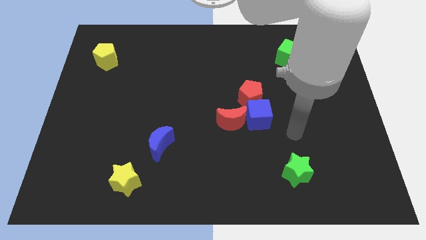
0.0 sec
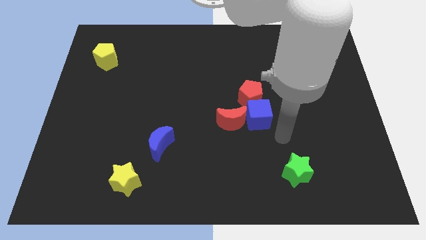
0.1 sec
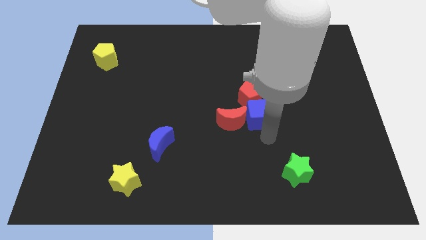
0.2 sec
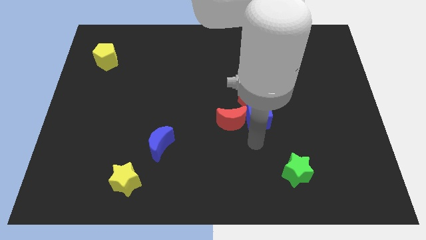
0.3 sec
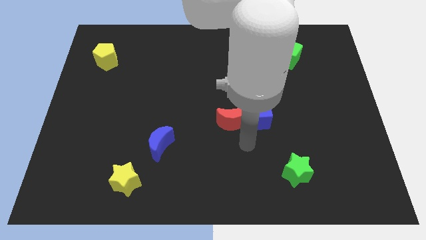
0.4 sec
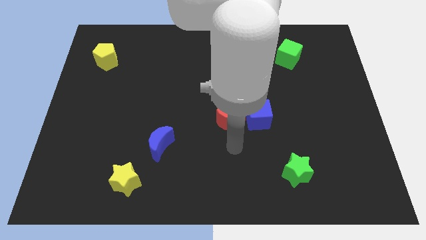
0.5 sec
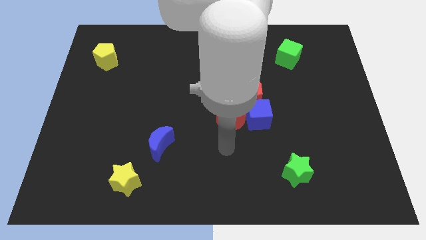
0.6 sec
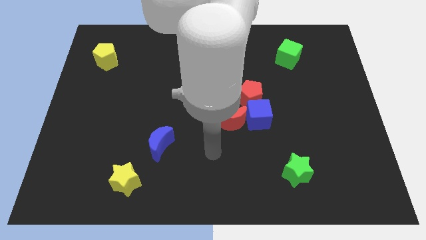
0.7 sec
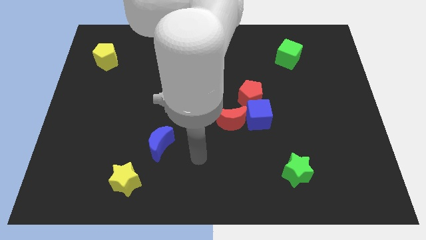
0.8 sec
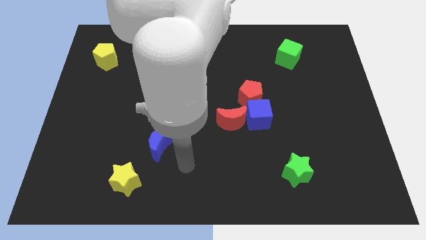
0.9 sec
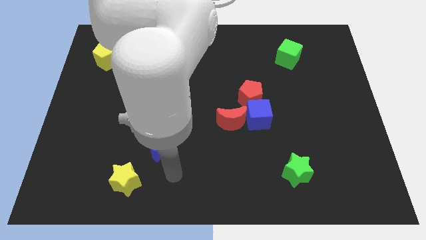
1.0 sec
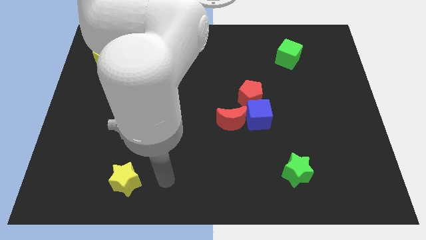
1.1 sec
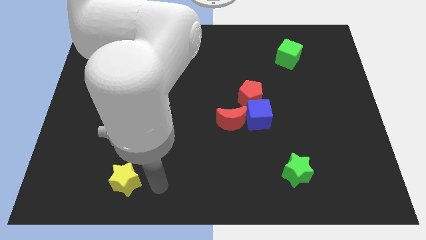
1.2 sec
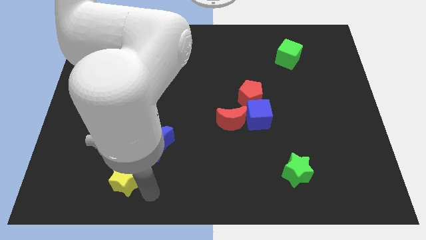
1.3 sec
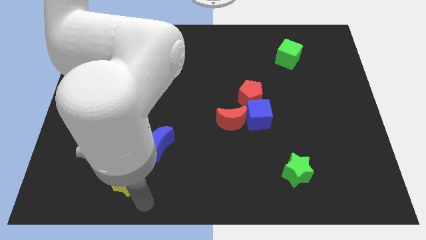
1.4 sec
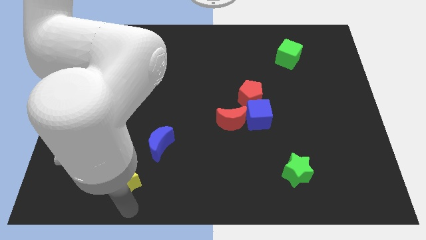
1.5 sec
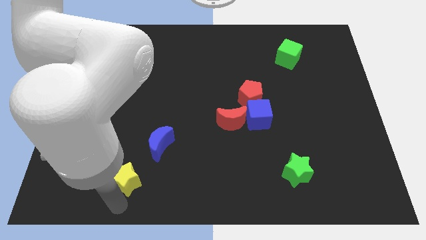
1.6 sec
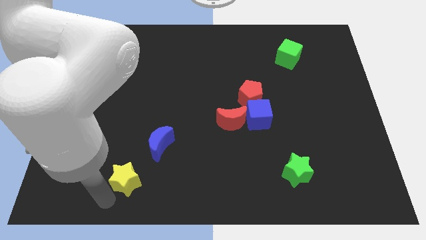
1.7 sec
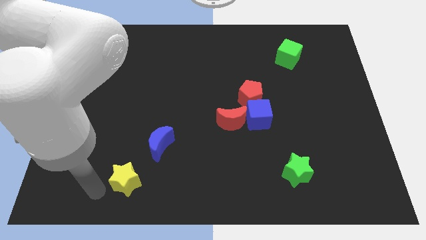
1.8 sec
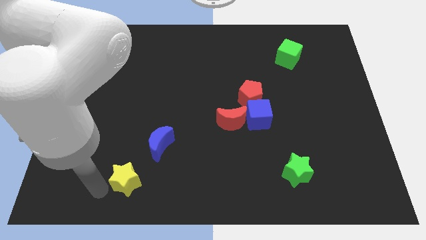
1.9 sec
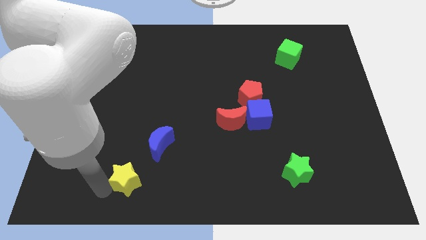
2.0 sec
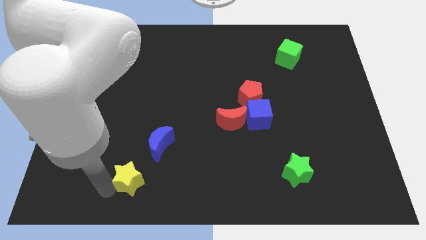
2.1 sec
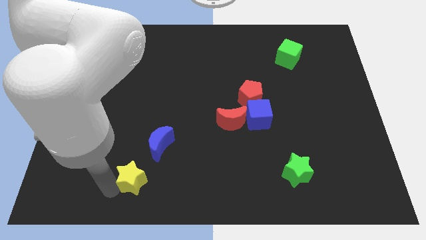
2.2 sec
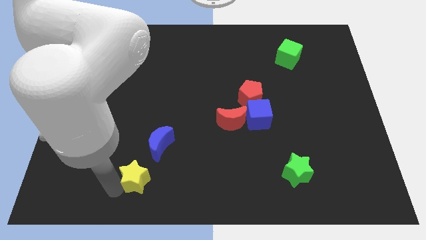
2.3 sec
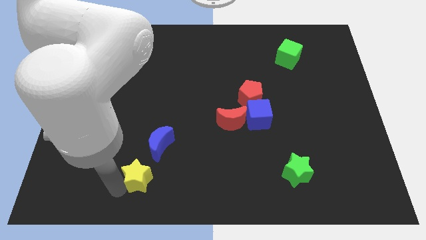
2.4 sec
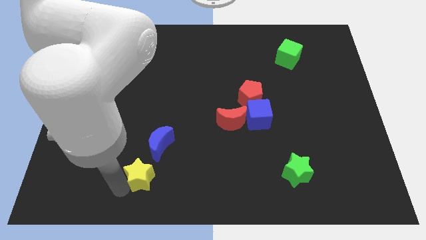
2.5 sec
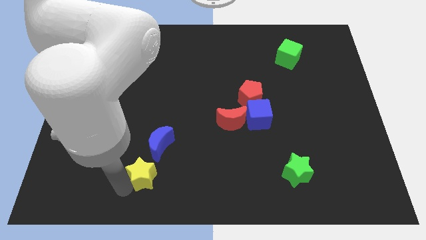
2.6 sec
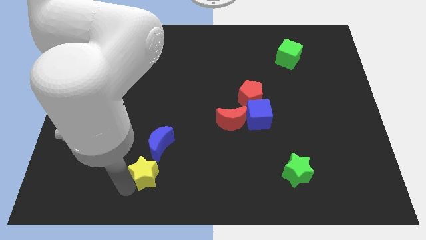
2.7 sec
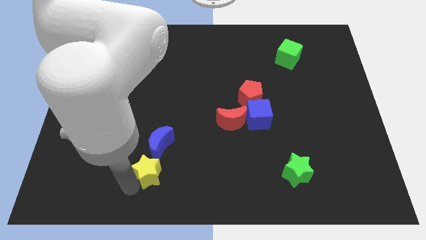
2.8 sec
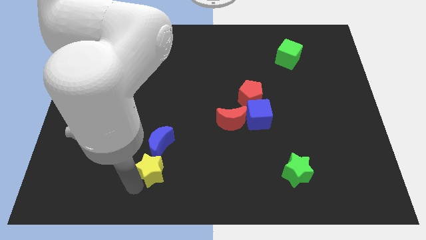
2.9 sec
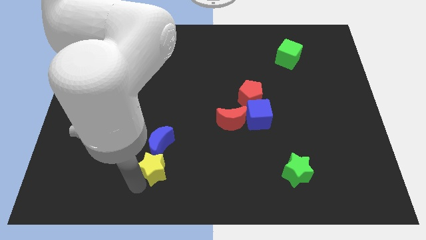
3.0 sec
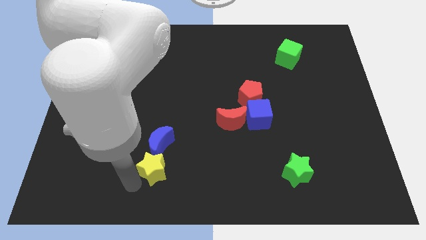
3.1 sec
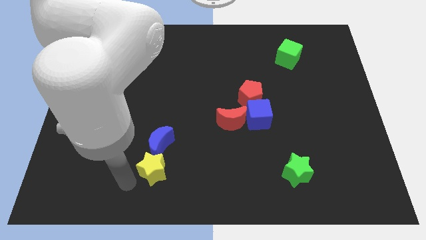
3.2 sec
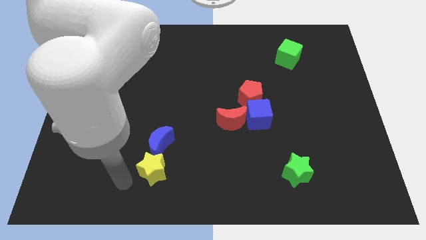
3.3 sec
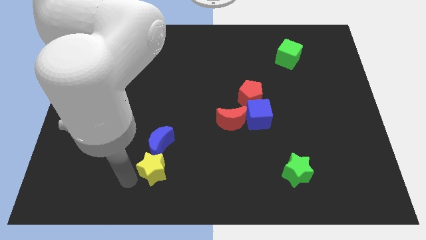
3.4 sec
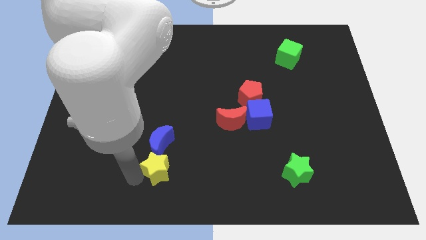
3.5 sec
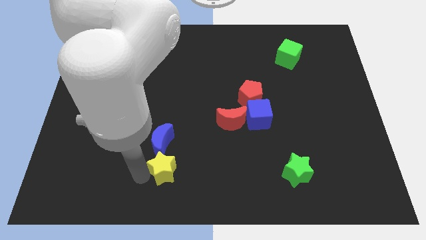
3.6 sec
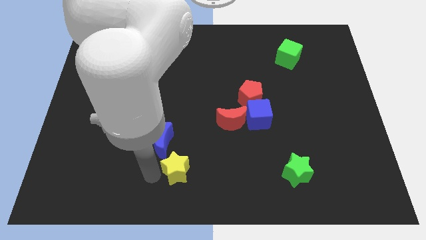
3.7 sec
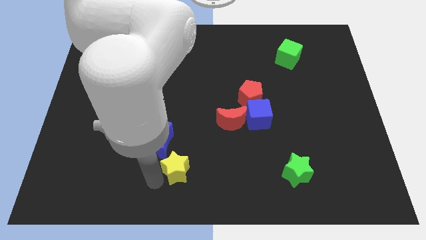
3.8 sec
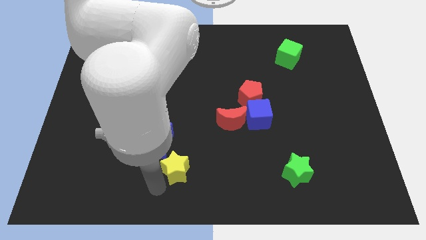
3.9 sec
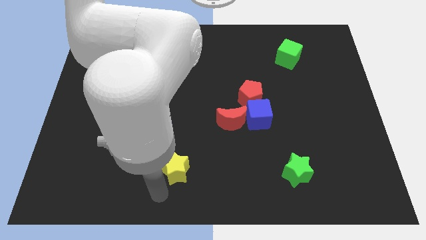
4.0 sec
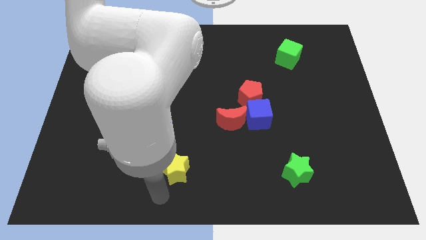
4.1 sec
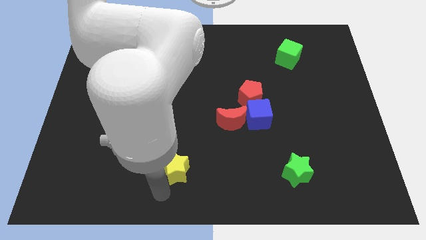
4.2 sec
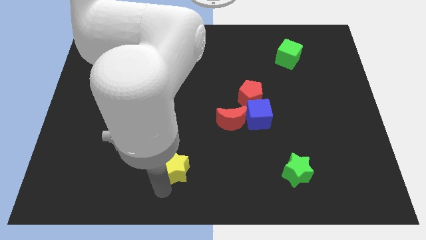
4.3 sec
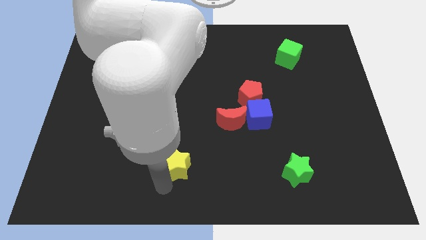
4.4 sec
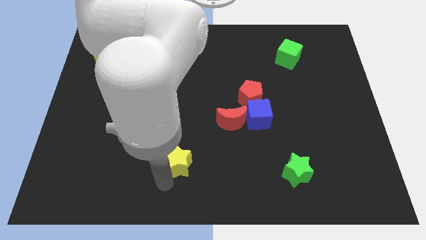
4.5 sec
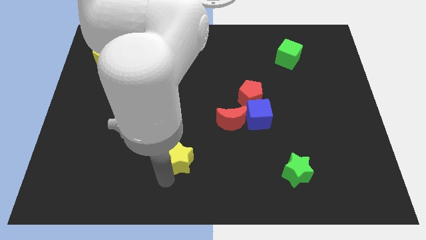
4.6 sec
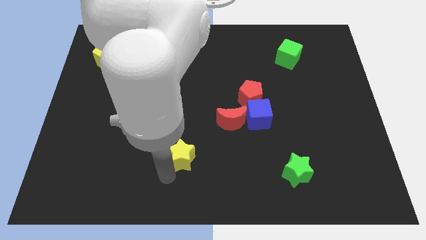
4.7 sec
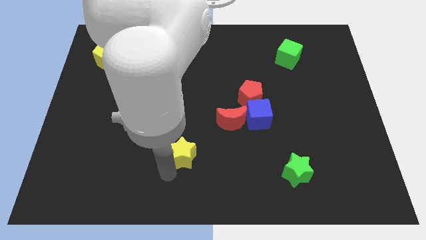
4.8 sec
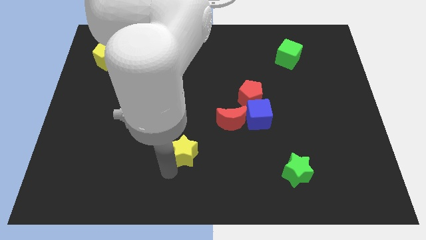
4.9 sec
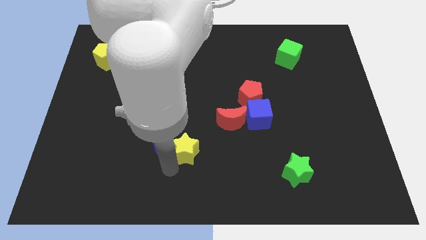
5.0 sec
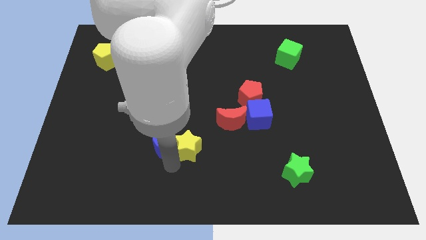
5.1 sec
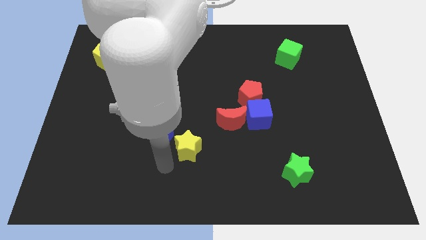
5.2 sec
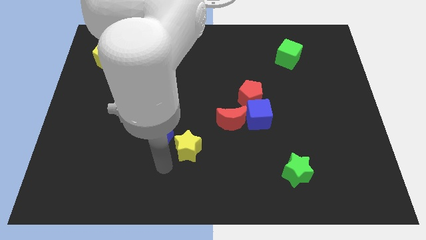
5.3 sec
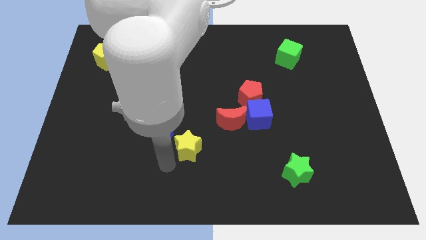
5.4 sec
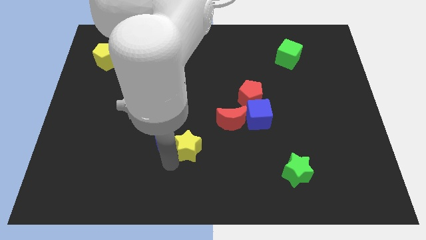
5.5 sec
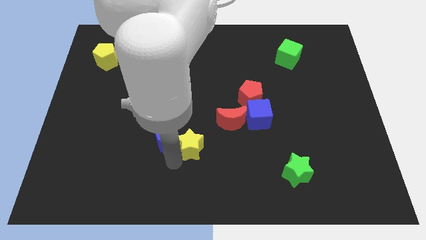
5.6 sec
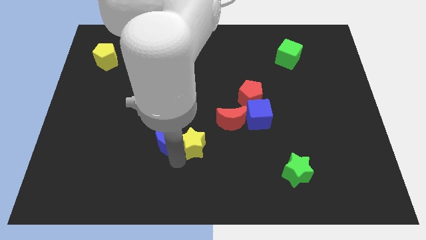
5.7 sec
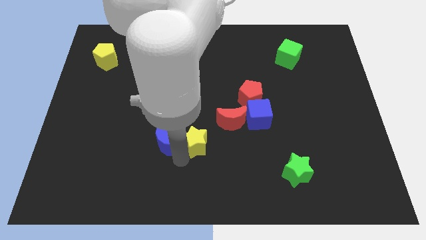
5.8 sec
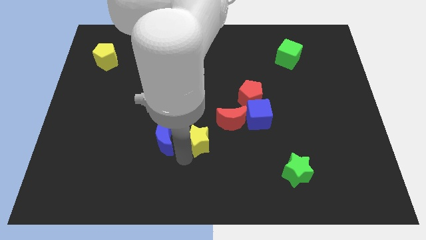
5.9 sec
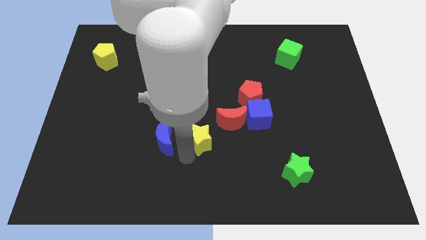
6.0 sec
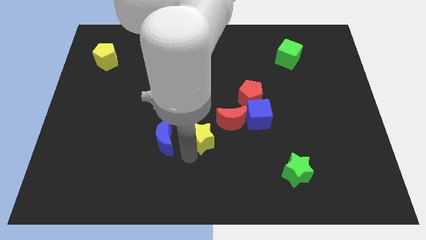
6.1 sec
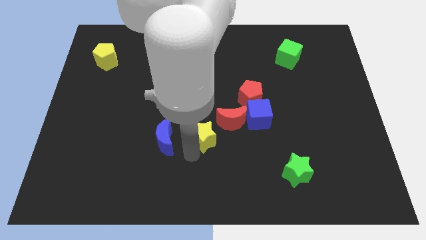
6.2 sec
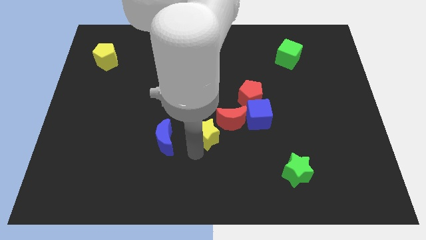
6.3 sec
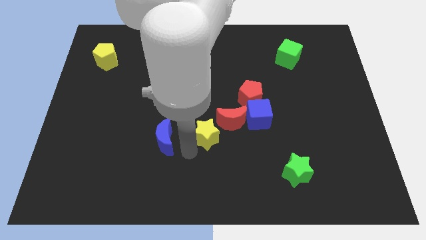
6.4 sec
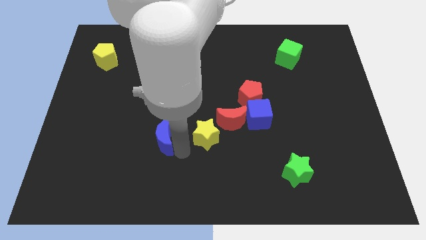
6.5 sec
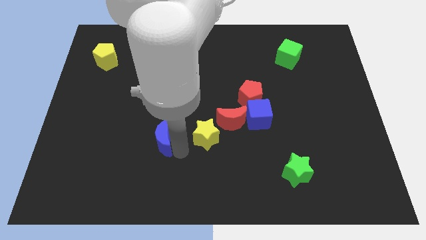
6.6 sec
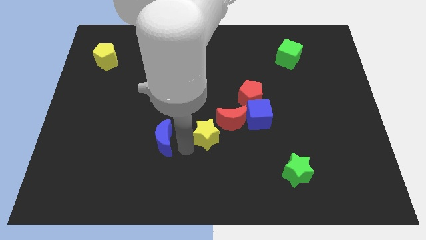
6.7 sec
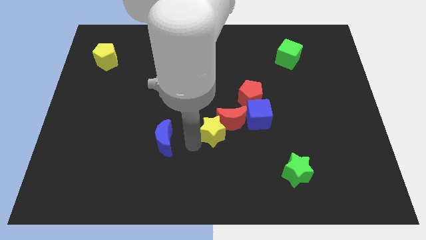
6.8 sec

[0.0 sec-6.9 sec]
push the yellow star close to the red moon
